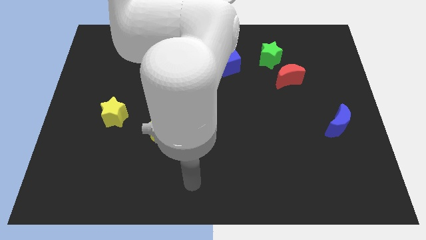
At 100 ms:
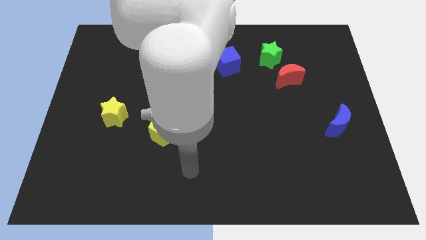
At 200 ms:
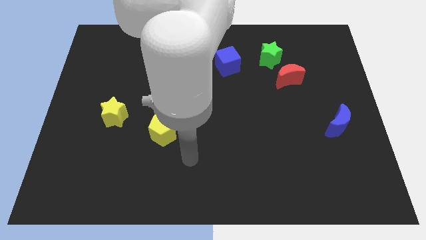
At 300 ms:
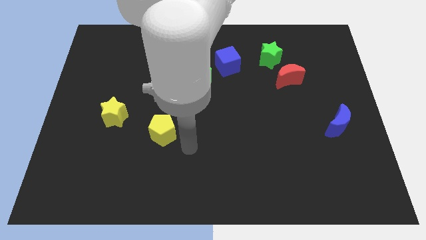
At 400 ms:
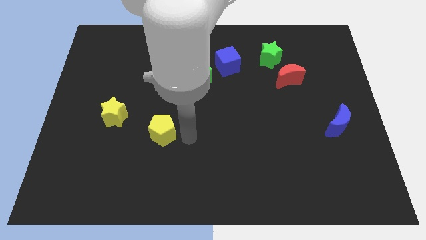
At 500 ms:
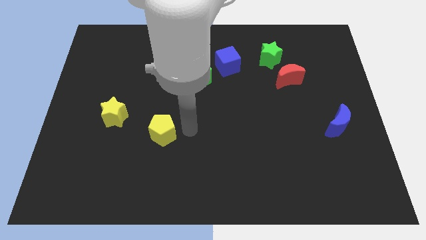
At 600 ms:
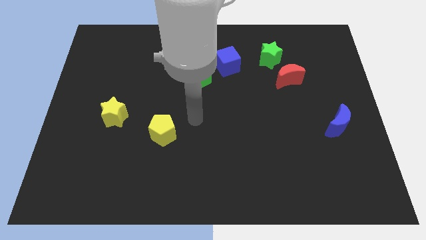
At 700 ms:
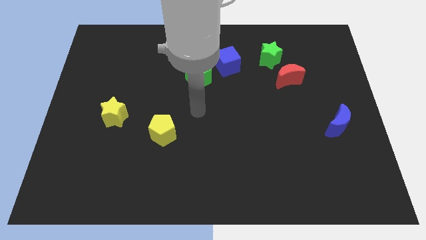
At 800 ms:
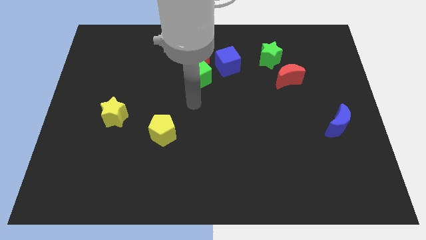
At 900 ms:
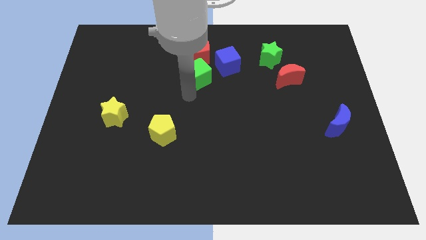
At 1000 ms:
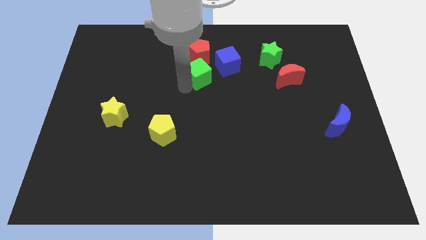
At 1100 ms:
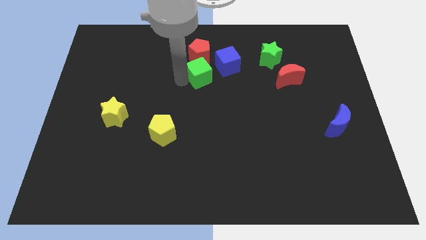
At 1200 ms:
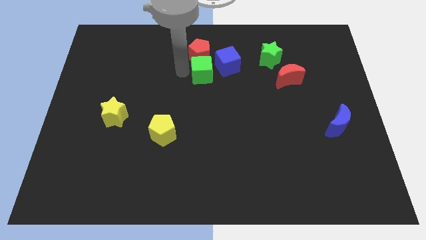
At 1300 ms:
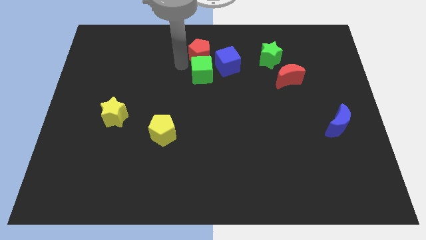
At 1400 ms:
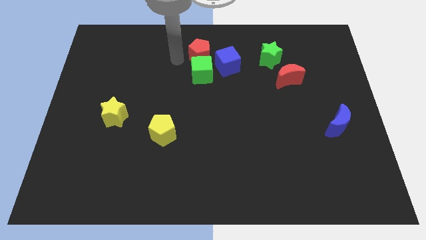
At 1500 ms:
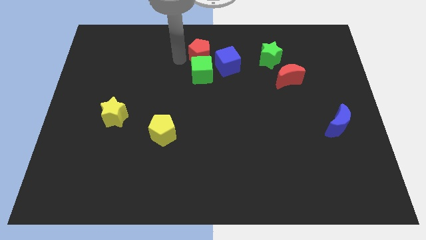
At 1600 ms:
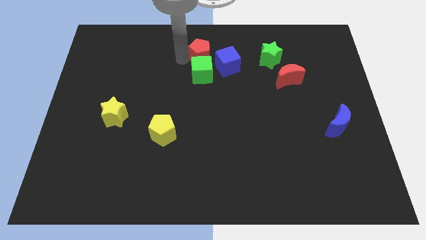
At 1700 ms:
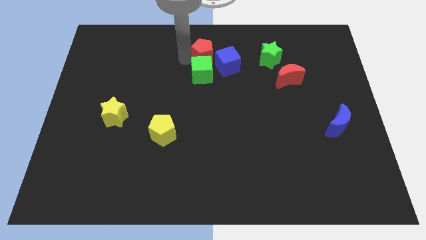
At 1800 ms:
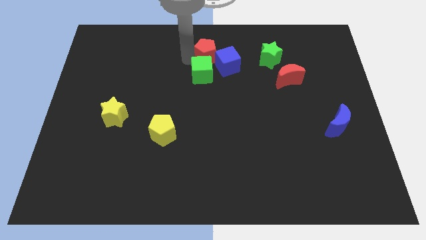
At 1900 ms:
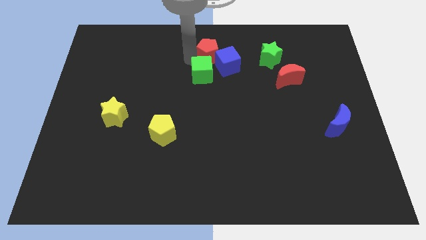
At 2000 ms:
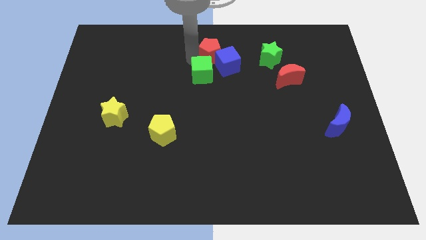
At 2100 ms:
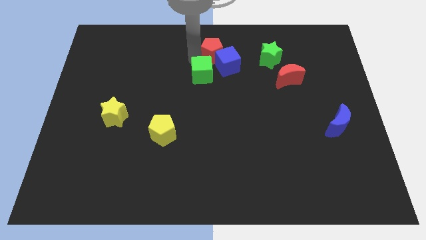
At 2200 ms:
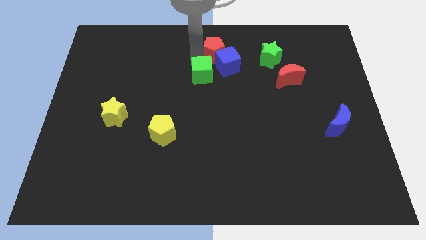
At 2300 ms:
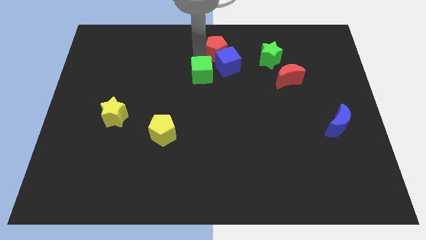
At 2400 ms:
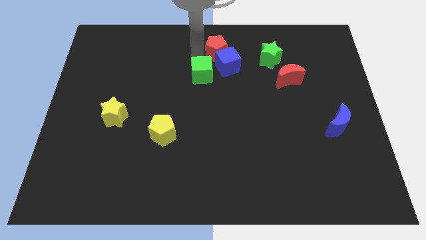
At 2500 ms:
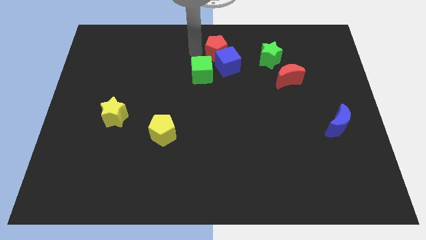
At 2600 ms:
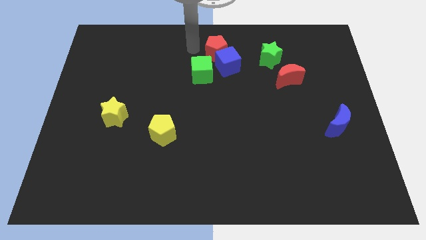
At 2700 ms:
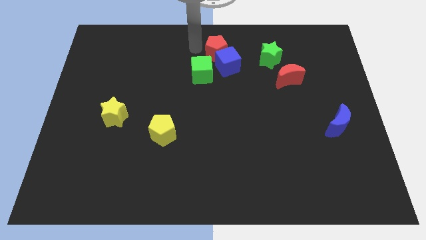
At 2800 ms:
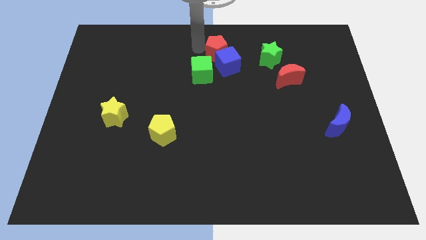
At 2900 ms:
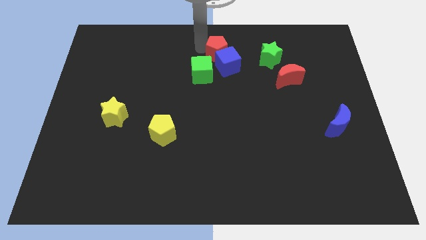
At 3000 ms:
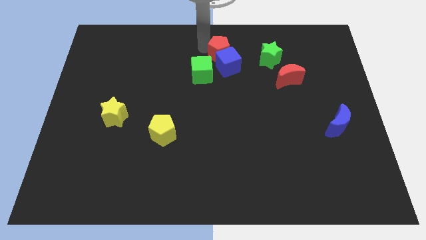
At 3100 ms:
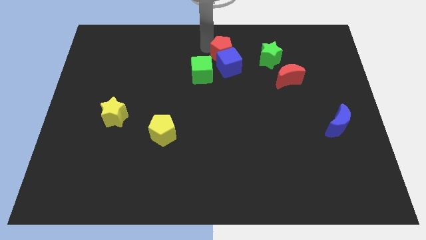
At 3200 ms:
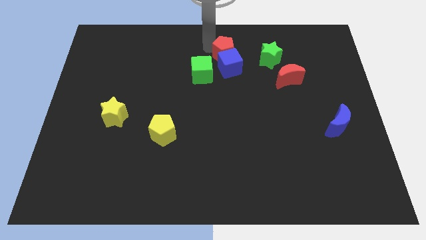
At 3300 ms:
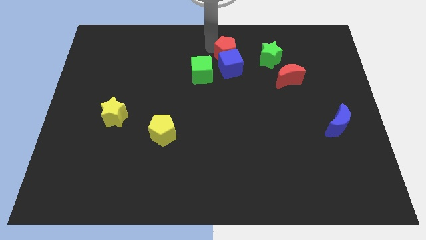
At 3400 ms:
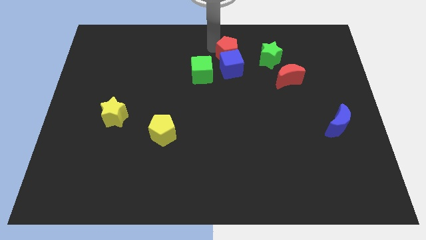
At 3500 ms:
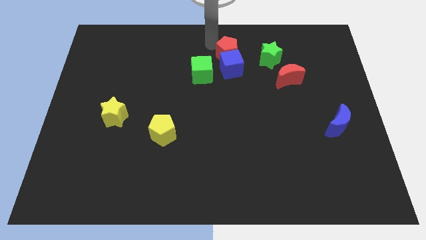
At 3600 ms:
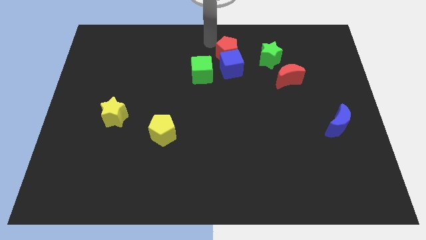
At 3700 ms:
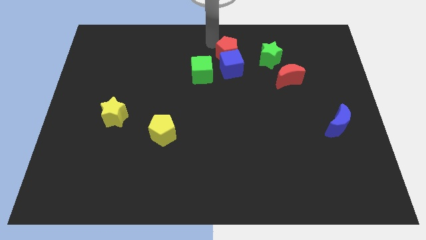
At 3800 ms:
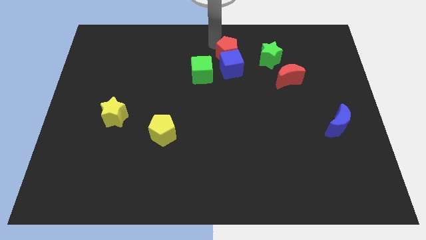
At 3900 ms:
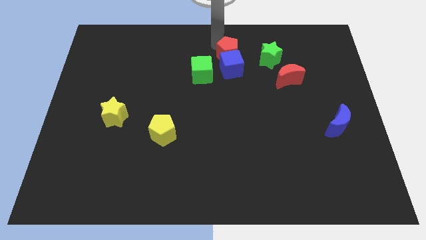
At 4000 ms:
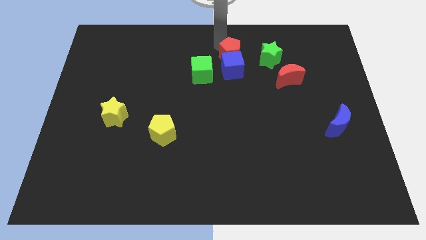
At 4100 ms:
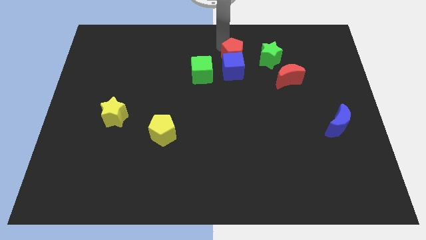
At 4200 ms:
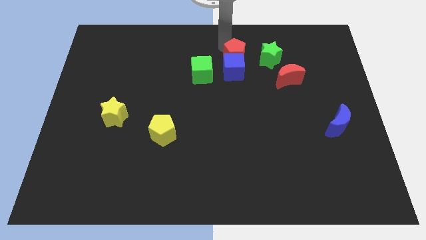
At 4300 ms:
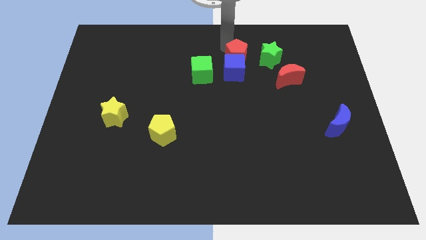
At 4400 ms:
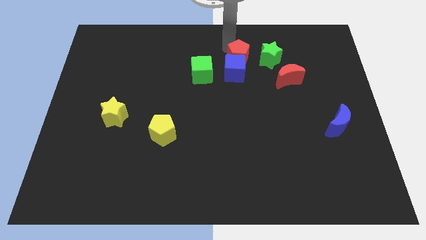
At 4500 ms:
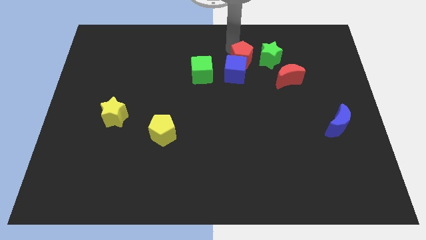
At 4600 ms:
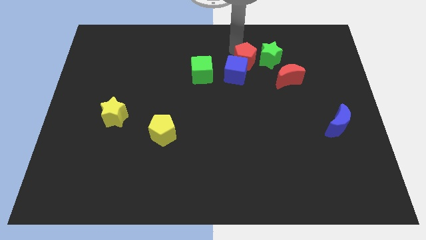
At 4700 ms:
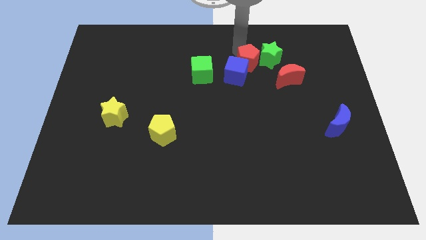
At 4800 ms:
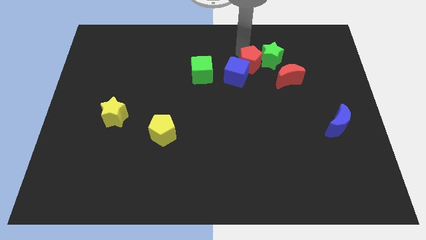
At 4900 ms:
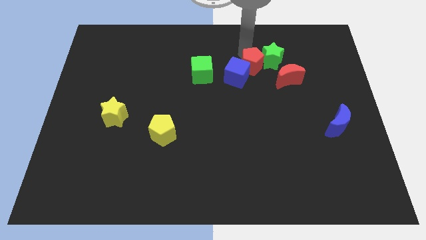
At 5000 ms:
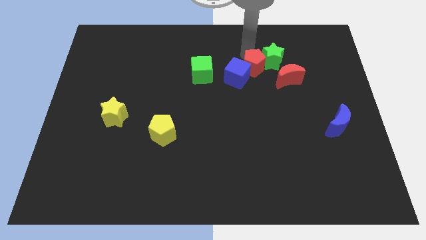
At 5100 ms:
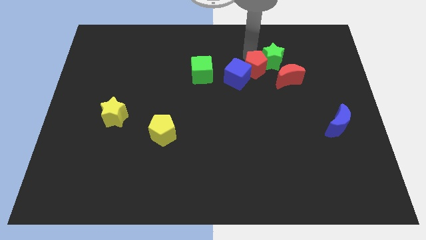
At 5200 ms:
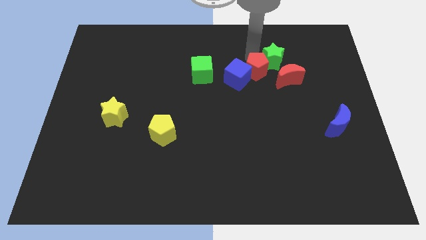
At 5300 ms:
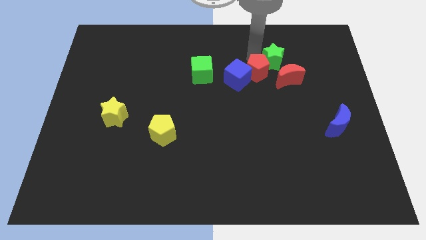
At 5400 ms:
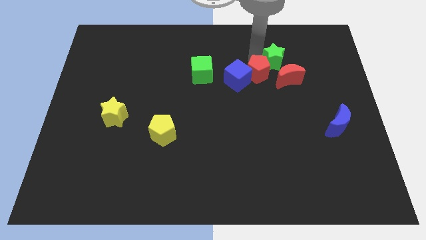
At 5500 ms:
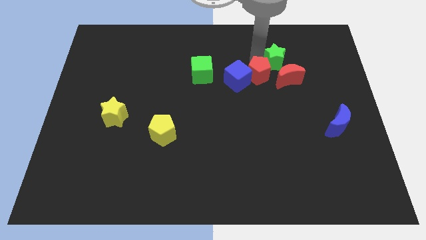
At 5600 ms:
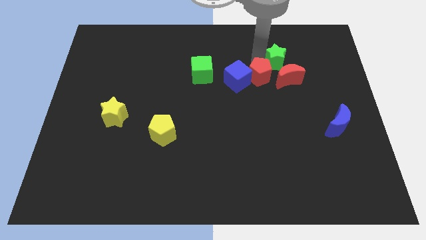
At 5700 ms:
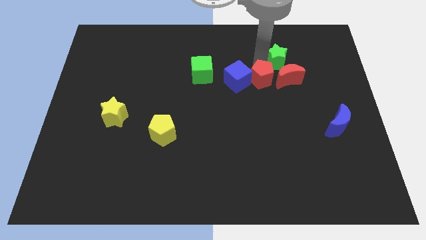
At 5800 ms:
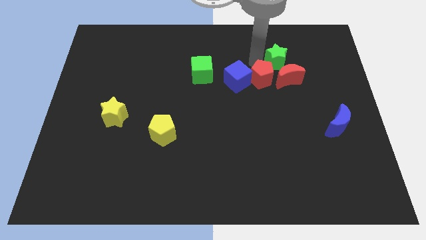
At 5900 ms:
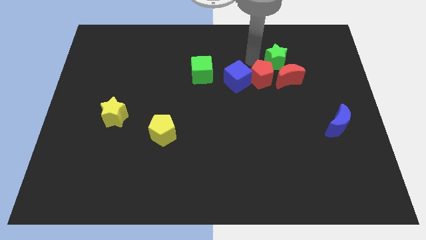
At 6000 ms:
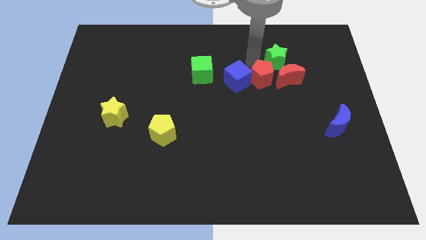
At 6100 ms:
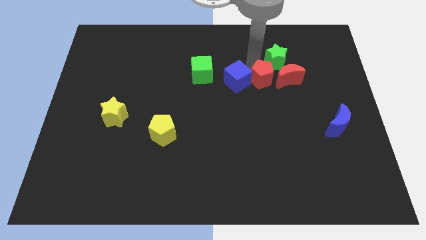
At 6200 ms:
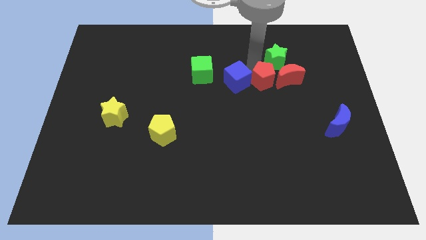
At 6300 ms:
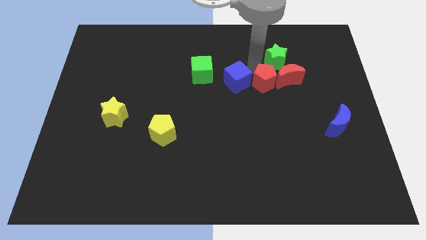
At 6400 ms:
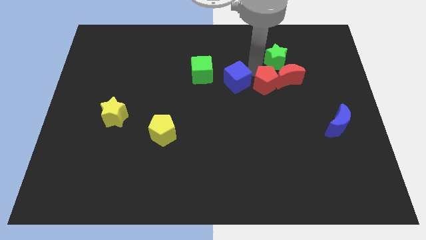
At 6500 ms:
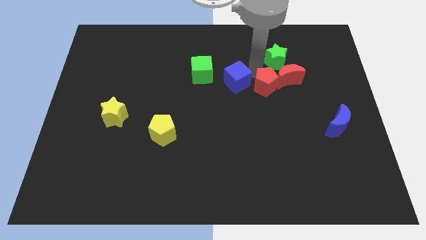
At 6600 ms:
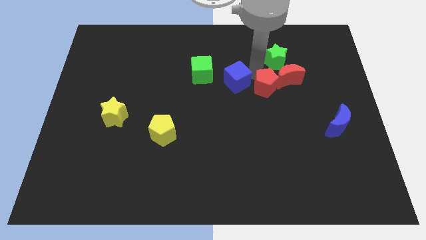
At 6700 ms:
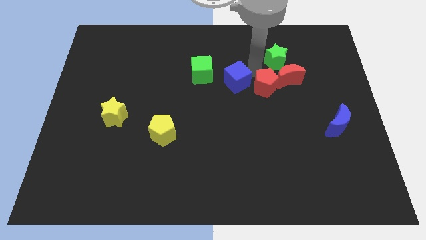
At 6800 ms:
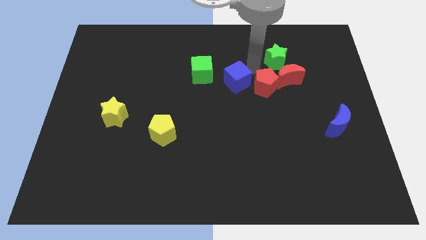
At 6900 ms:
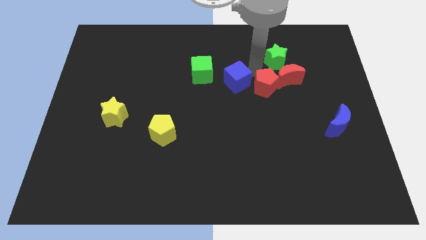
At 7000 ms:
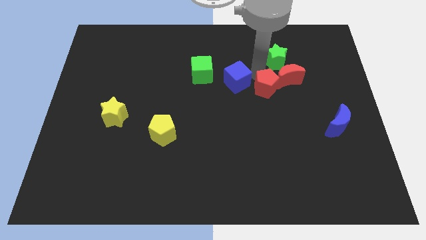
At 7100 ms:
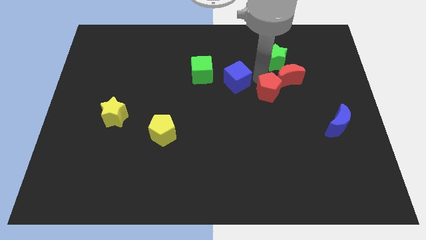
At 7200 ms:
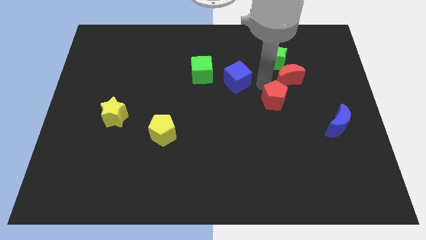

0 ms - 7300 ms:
push the red pentagon to the bottom of the red moon
